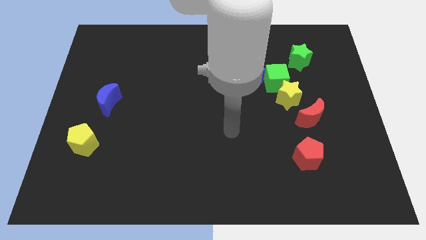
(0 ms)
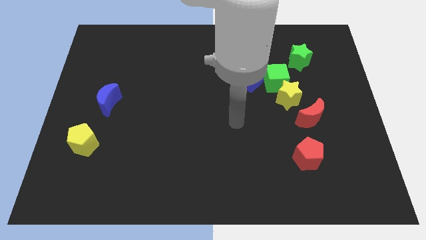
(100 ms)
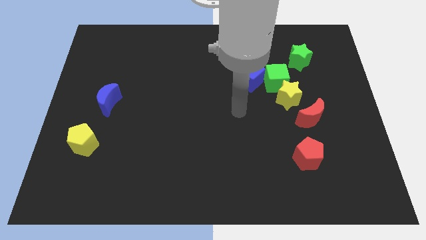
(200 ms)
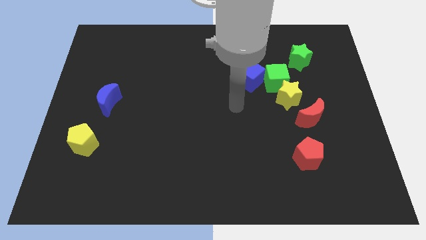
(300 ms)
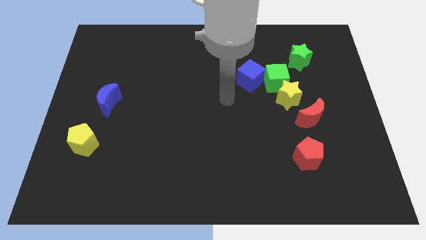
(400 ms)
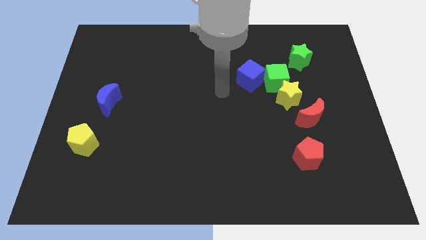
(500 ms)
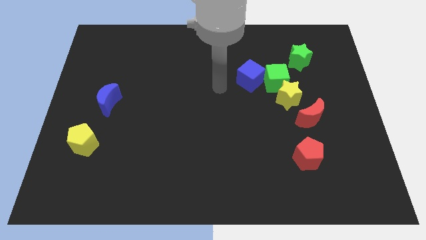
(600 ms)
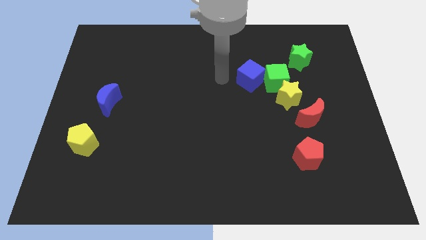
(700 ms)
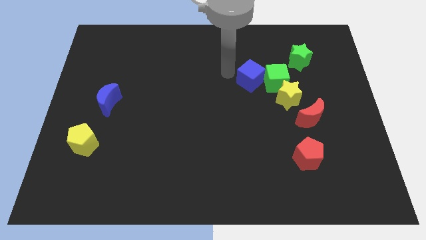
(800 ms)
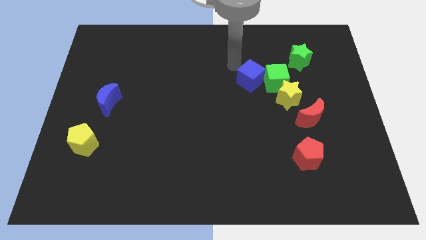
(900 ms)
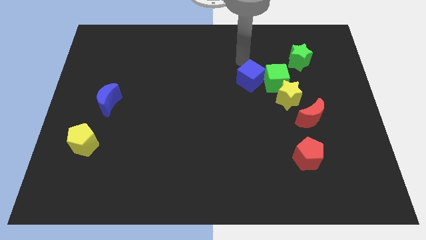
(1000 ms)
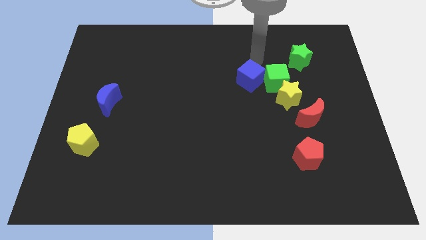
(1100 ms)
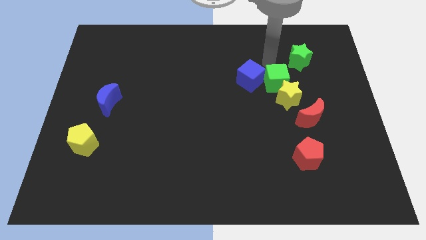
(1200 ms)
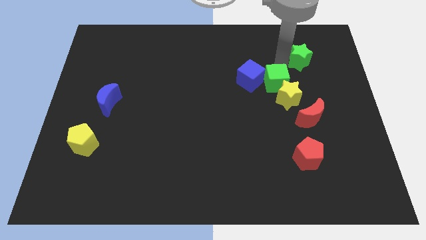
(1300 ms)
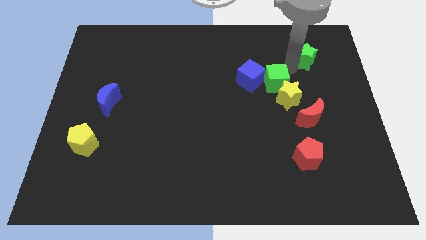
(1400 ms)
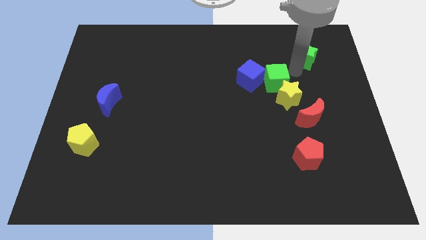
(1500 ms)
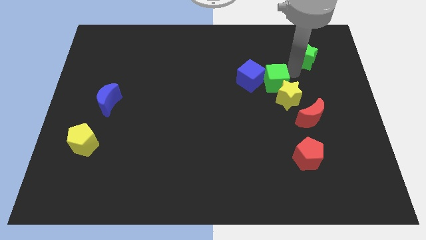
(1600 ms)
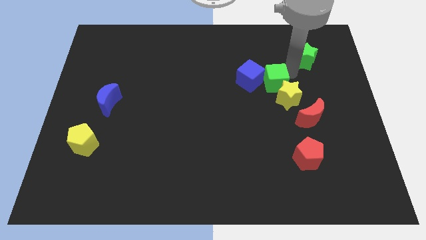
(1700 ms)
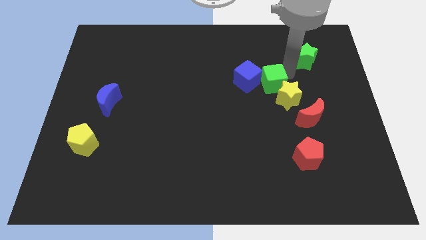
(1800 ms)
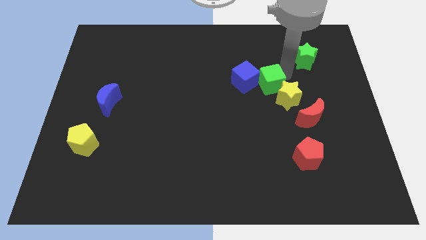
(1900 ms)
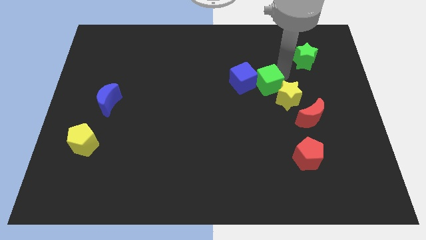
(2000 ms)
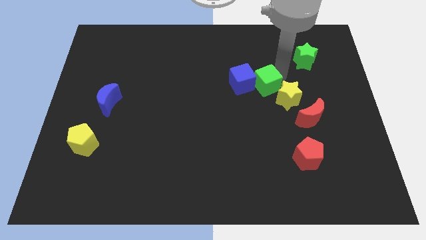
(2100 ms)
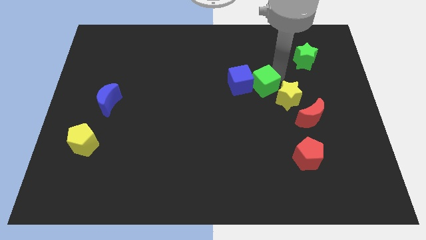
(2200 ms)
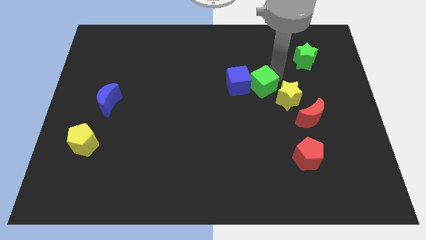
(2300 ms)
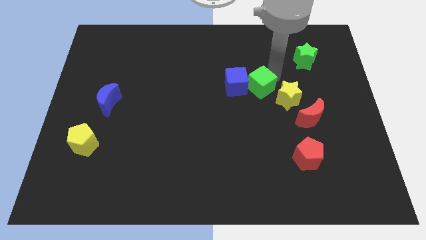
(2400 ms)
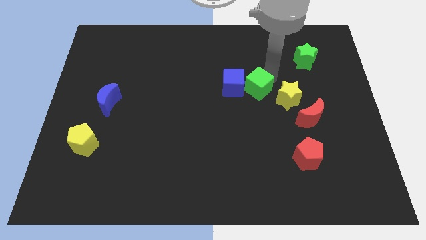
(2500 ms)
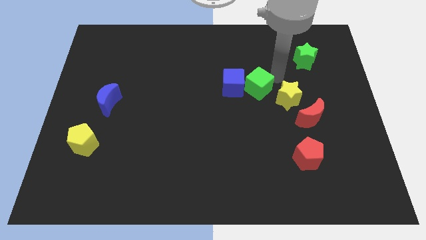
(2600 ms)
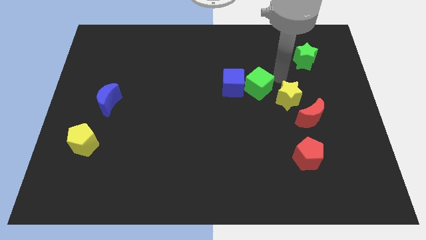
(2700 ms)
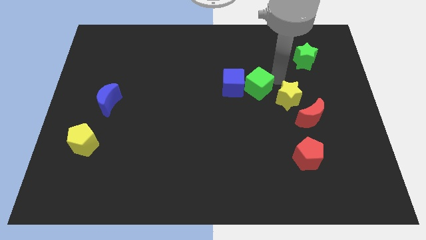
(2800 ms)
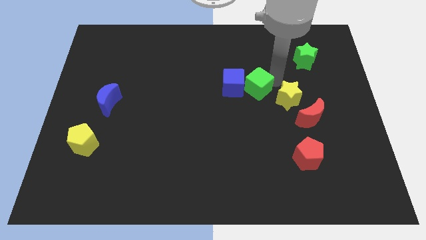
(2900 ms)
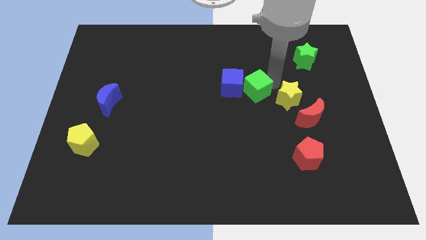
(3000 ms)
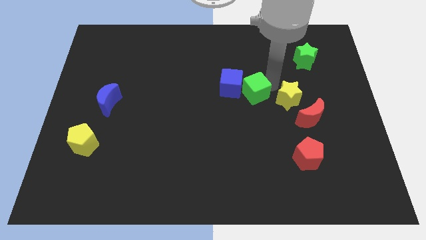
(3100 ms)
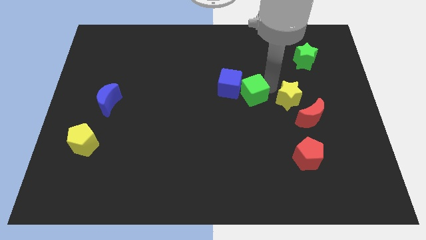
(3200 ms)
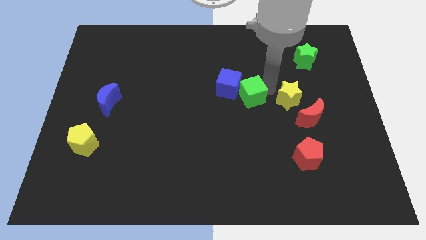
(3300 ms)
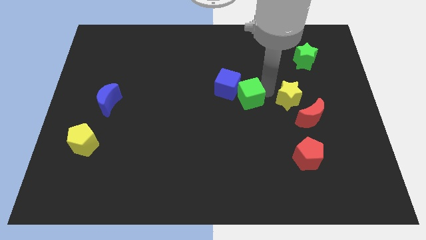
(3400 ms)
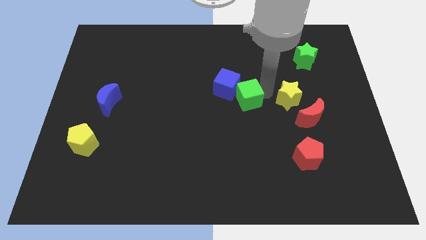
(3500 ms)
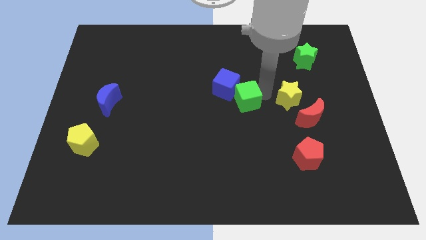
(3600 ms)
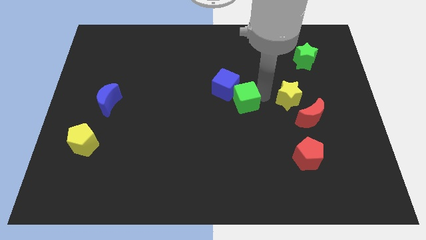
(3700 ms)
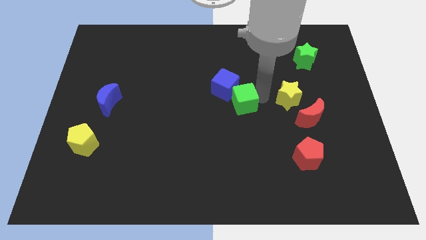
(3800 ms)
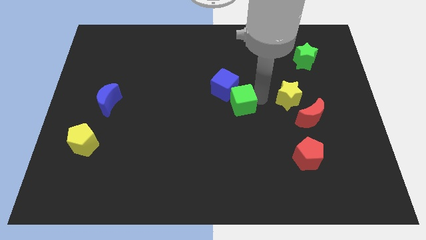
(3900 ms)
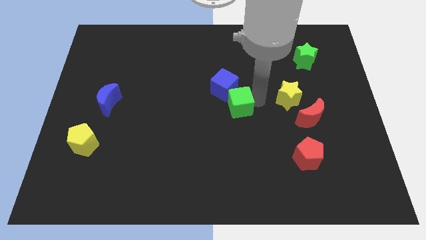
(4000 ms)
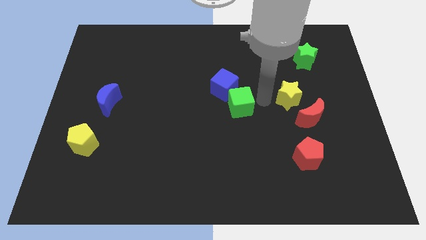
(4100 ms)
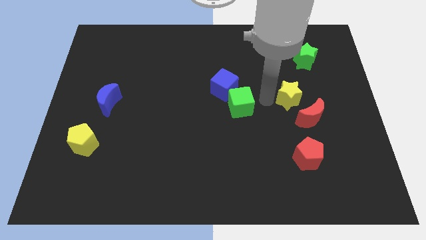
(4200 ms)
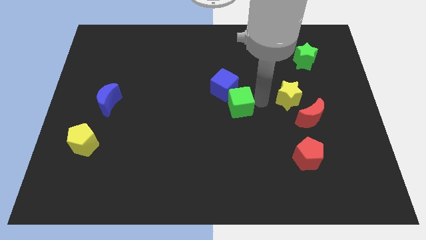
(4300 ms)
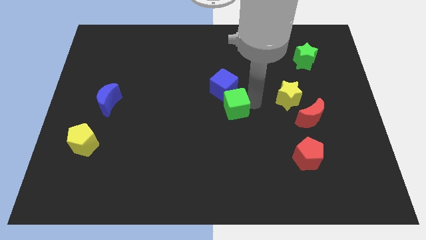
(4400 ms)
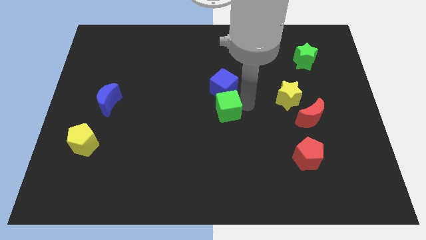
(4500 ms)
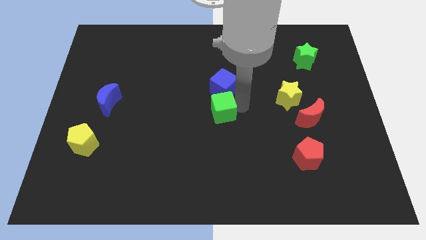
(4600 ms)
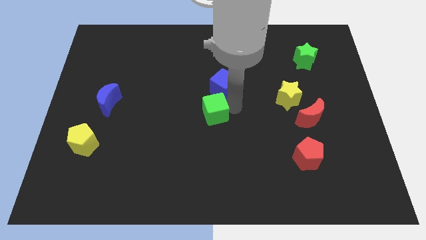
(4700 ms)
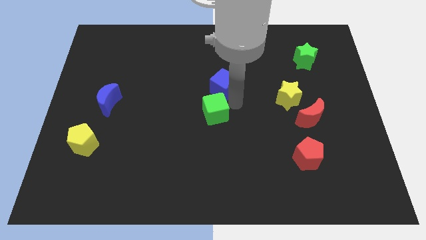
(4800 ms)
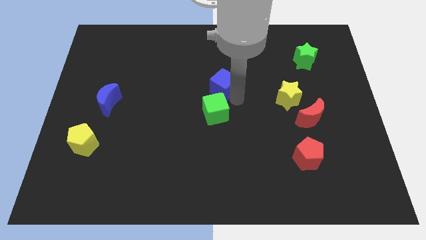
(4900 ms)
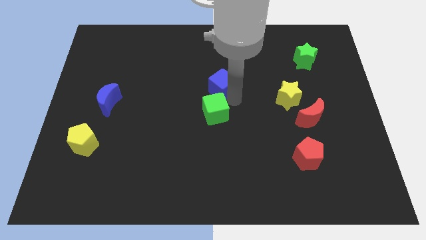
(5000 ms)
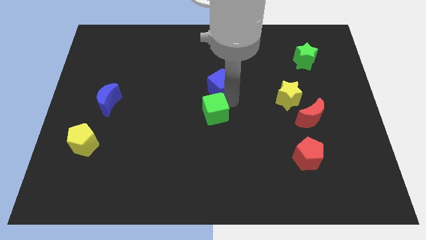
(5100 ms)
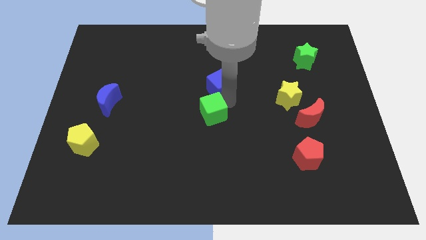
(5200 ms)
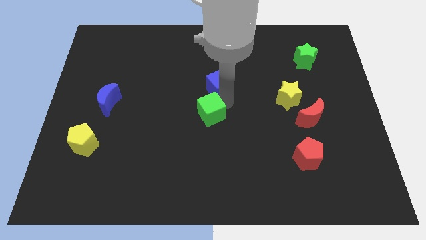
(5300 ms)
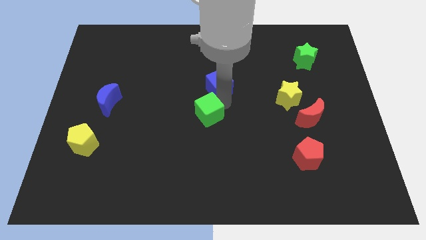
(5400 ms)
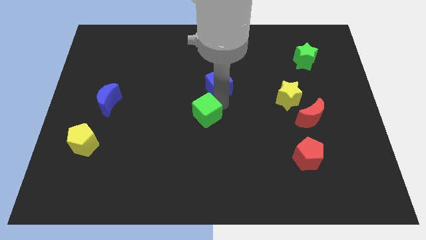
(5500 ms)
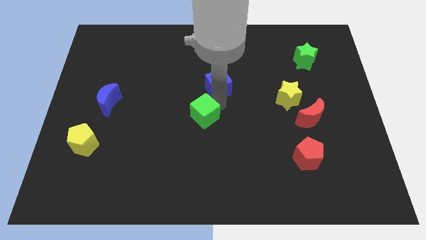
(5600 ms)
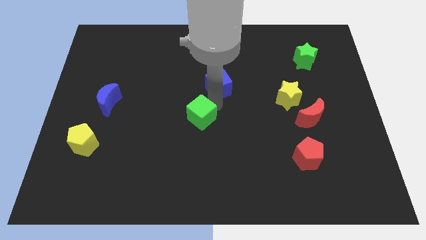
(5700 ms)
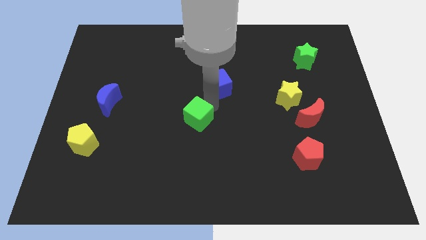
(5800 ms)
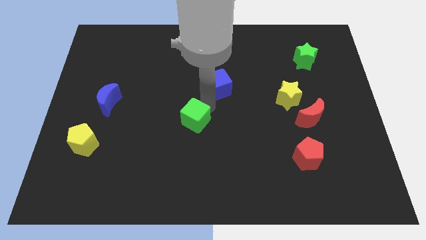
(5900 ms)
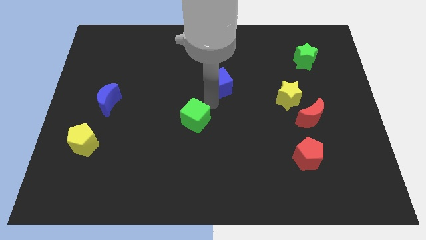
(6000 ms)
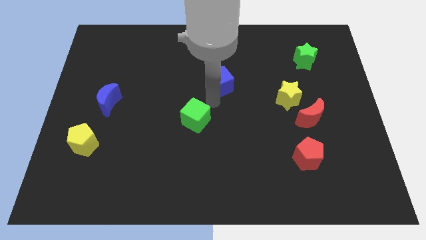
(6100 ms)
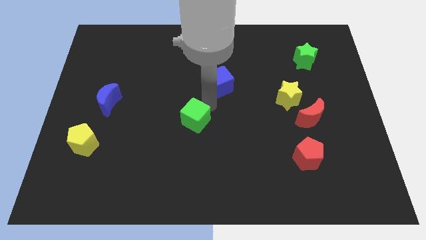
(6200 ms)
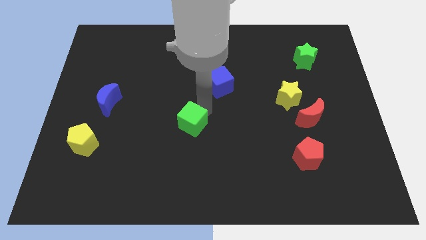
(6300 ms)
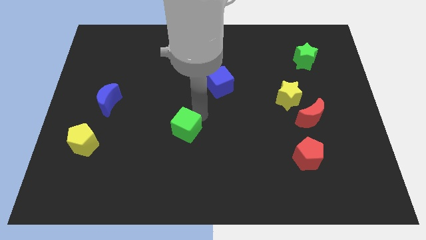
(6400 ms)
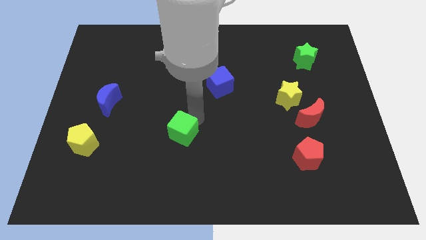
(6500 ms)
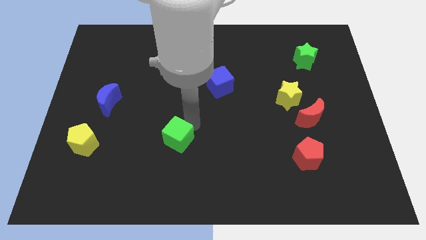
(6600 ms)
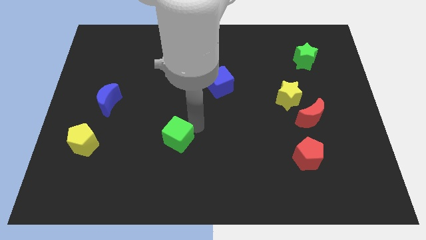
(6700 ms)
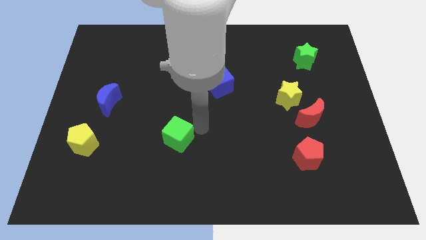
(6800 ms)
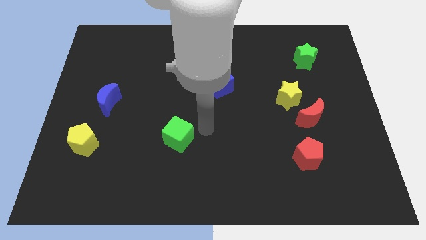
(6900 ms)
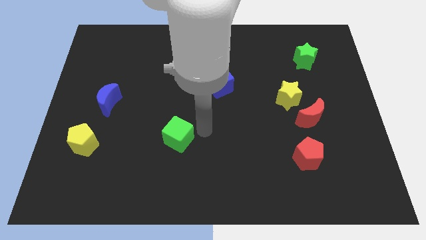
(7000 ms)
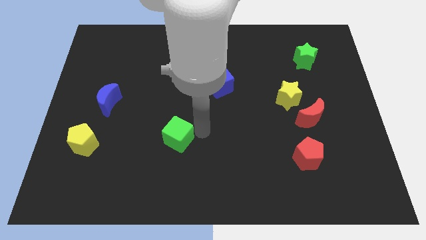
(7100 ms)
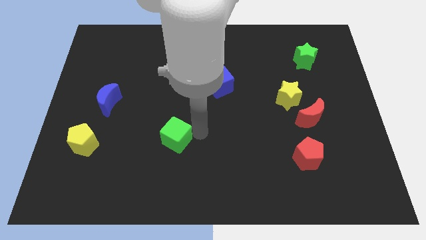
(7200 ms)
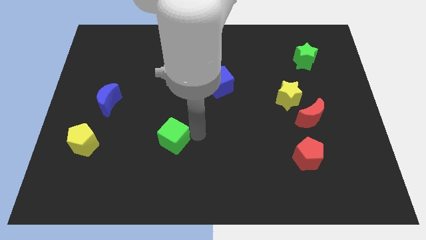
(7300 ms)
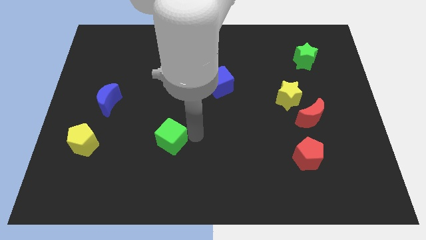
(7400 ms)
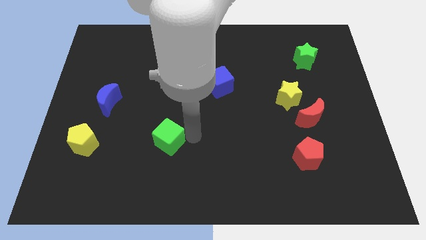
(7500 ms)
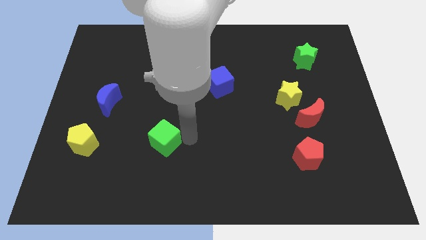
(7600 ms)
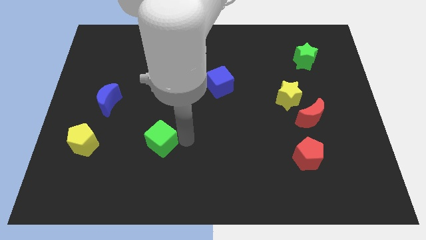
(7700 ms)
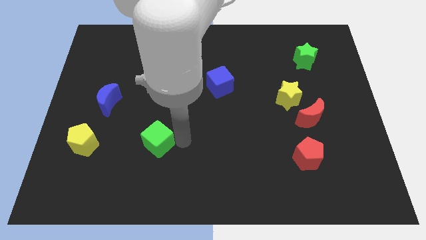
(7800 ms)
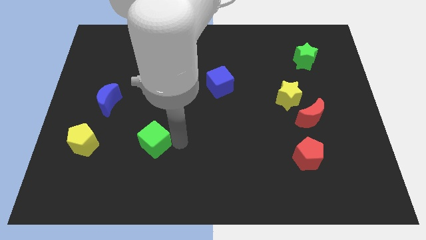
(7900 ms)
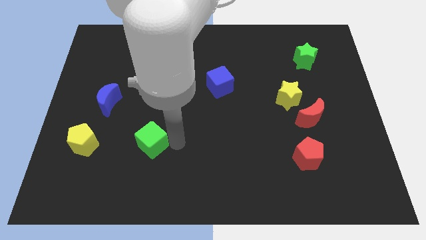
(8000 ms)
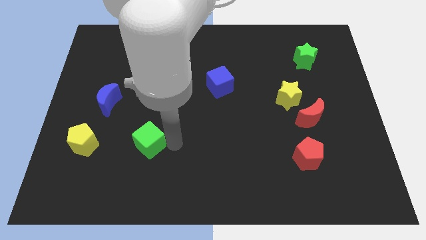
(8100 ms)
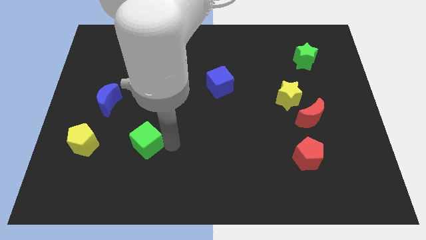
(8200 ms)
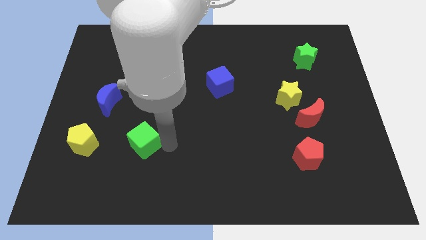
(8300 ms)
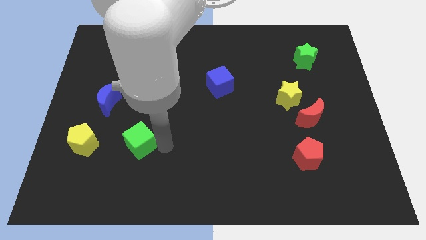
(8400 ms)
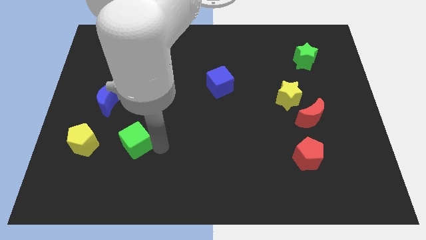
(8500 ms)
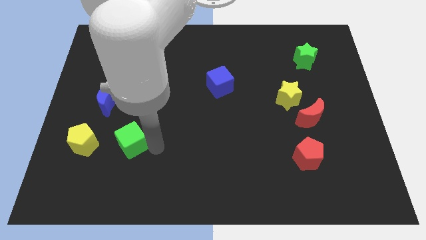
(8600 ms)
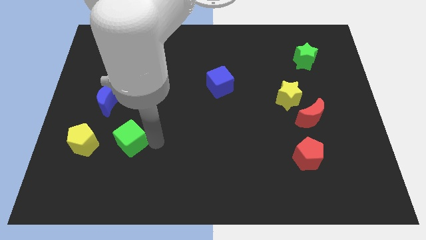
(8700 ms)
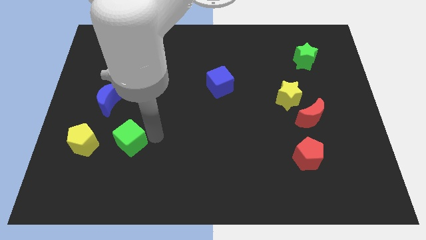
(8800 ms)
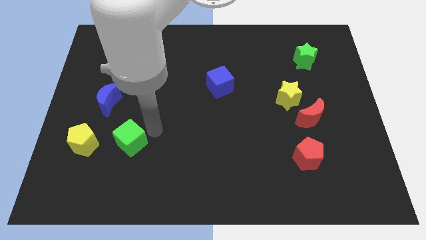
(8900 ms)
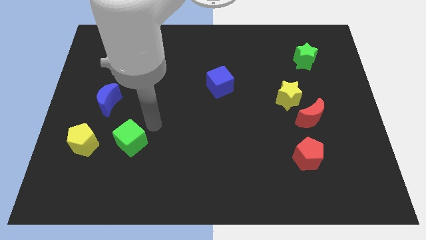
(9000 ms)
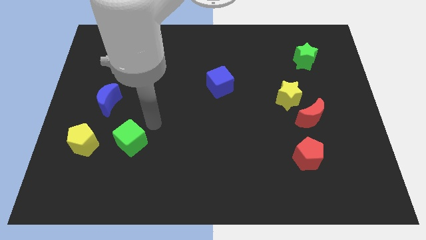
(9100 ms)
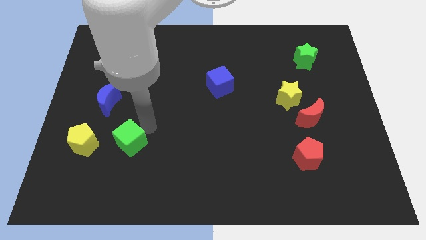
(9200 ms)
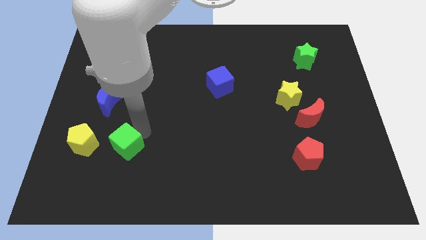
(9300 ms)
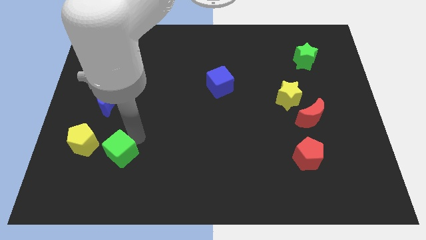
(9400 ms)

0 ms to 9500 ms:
put the green cube to the bottom right of the yellow pentagon
